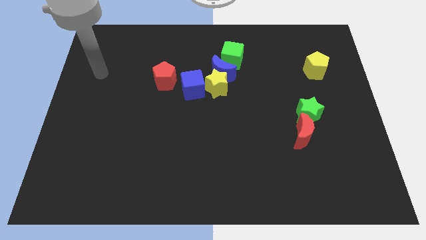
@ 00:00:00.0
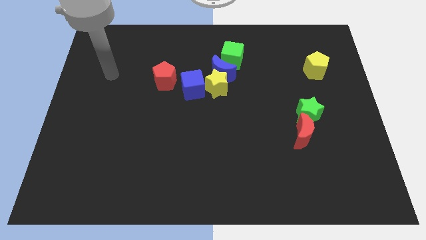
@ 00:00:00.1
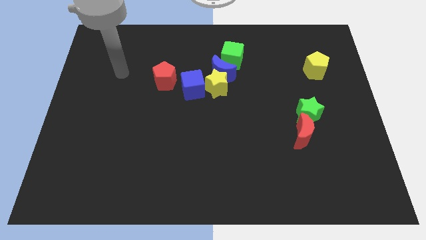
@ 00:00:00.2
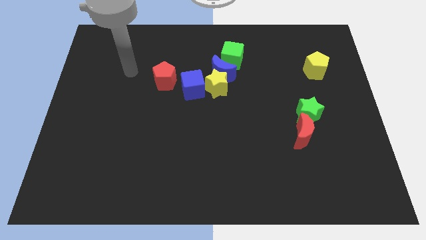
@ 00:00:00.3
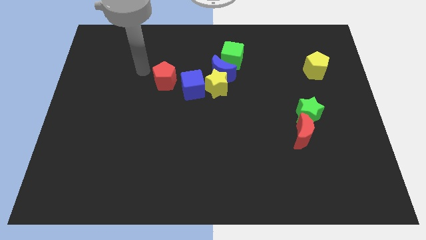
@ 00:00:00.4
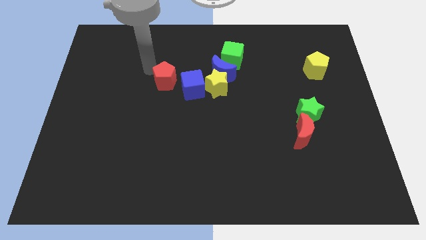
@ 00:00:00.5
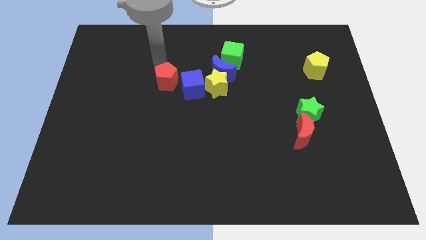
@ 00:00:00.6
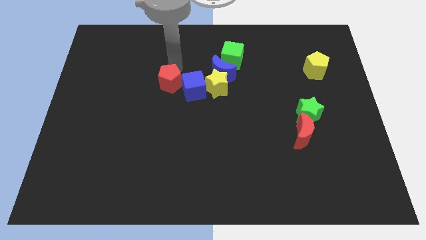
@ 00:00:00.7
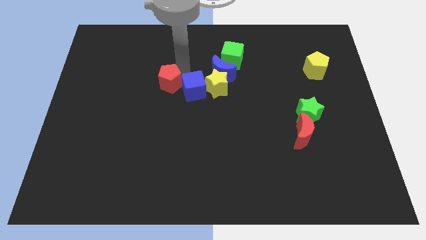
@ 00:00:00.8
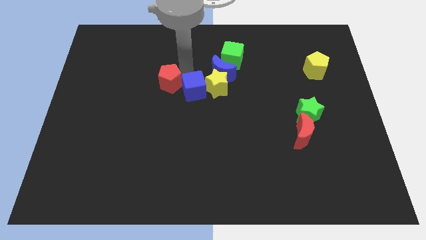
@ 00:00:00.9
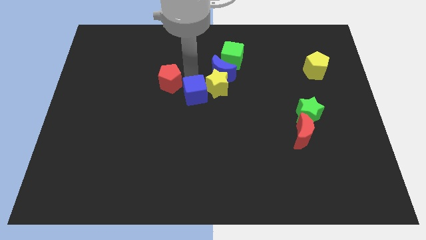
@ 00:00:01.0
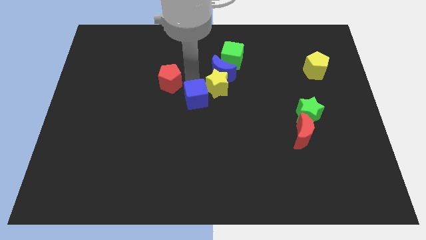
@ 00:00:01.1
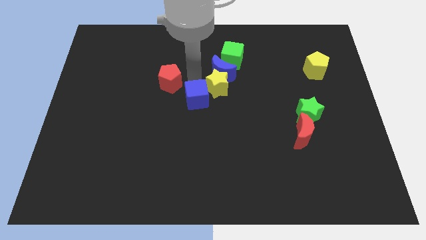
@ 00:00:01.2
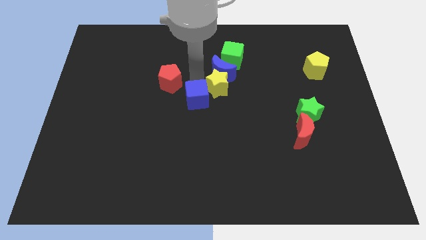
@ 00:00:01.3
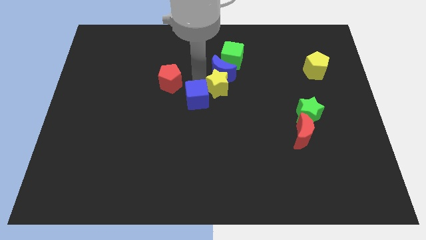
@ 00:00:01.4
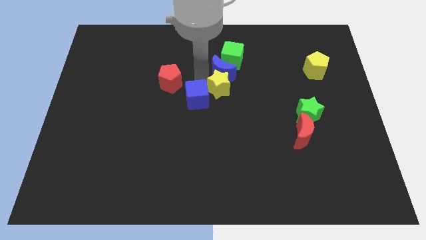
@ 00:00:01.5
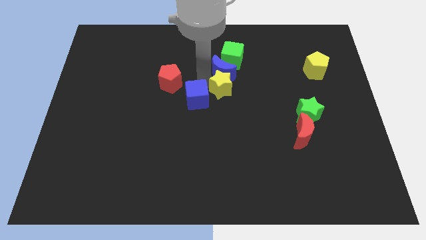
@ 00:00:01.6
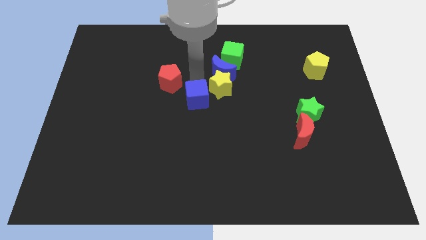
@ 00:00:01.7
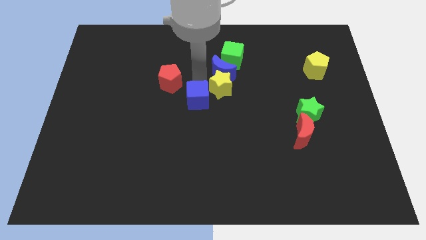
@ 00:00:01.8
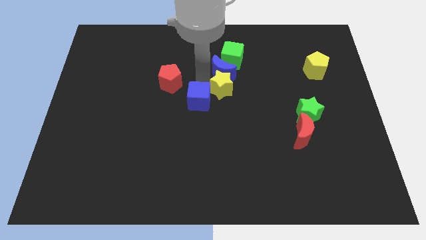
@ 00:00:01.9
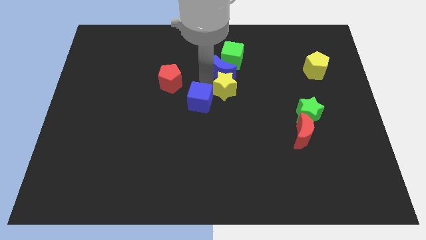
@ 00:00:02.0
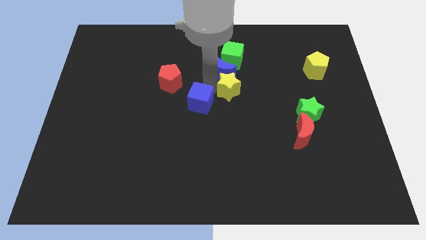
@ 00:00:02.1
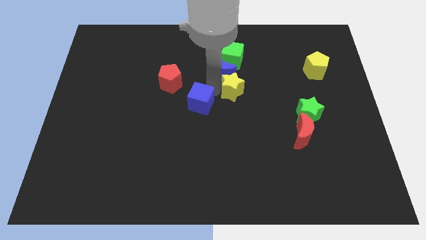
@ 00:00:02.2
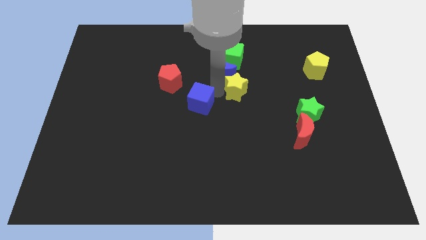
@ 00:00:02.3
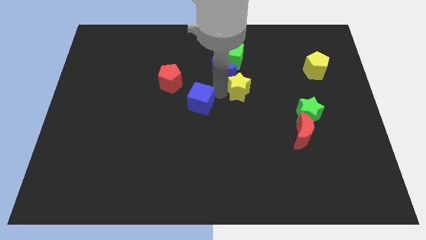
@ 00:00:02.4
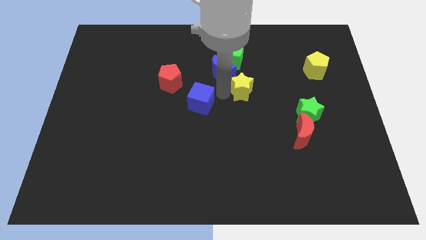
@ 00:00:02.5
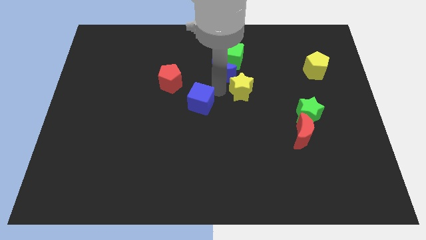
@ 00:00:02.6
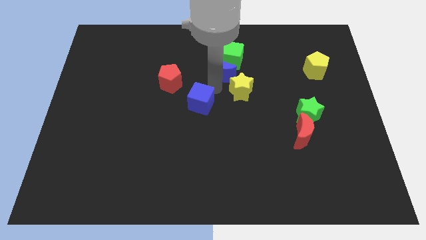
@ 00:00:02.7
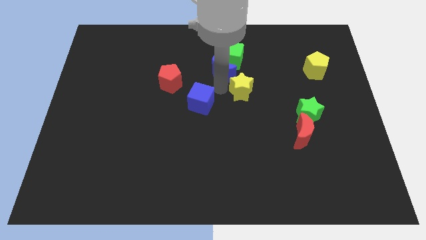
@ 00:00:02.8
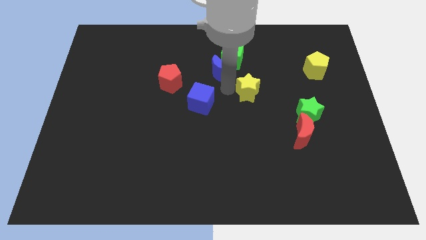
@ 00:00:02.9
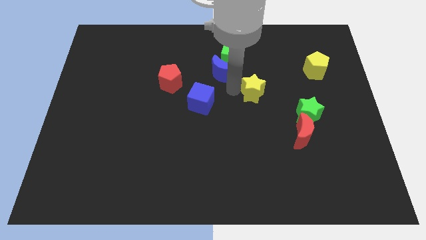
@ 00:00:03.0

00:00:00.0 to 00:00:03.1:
pull the yellow star apart from the blue moon and blue cube

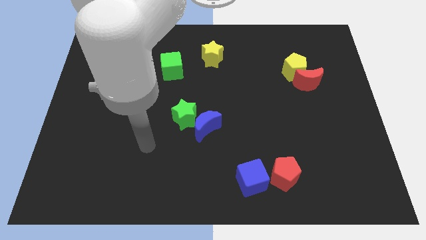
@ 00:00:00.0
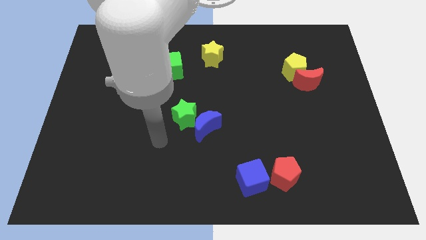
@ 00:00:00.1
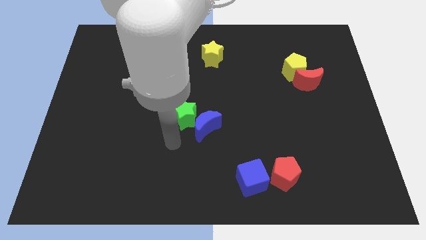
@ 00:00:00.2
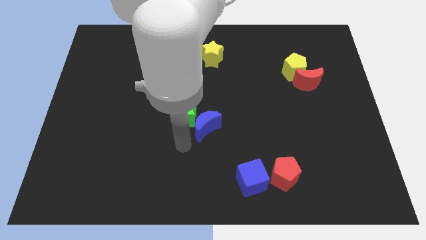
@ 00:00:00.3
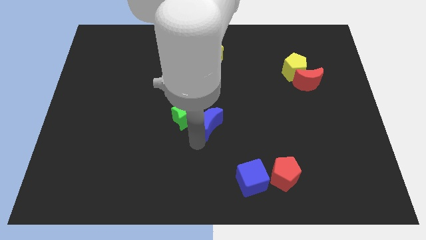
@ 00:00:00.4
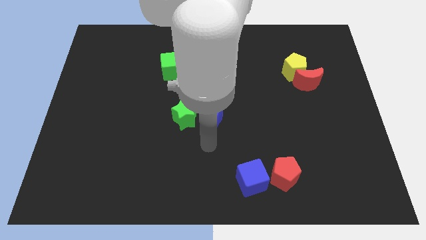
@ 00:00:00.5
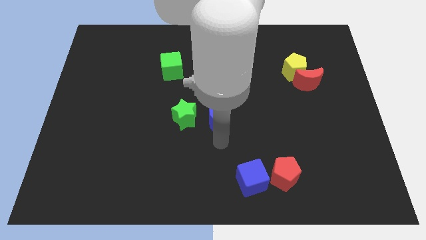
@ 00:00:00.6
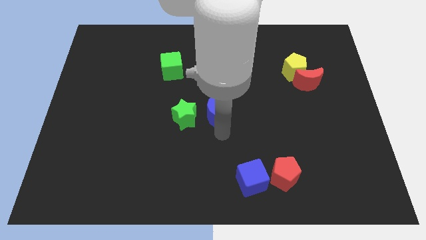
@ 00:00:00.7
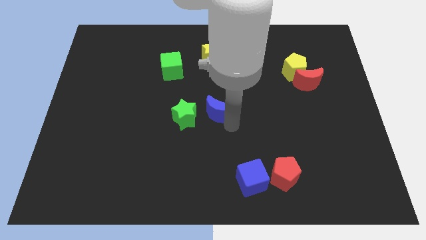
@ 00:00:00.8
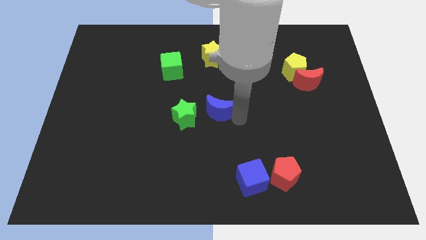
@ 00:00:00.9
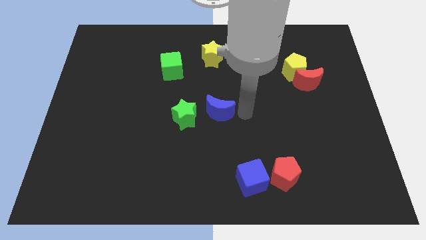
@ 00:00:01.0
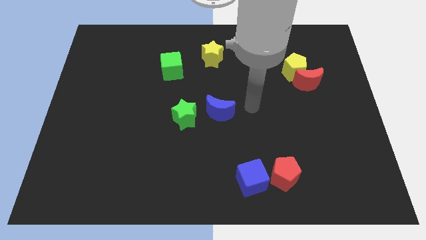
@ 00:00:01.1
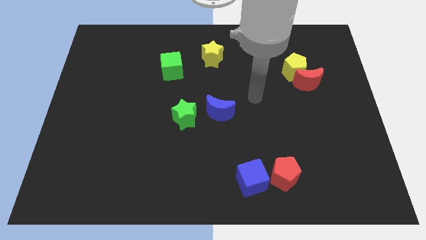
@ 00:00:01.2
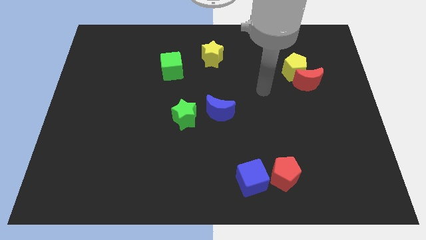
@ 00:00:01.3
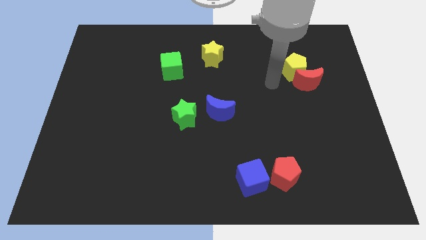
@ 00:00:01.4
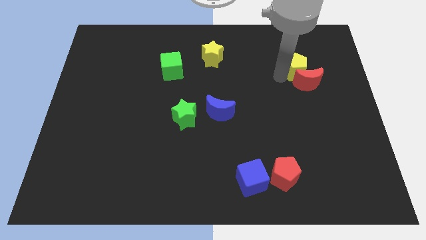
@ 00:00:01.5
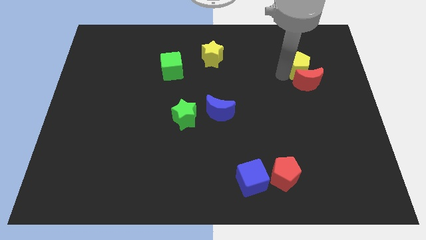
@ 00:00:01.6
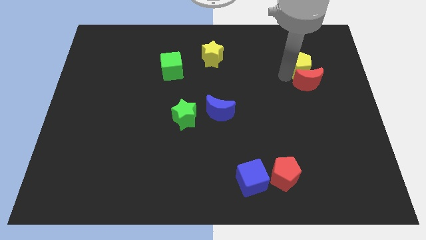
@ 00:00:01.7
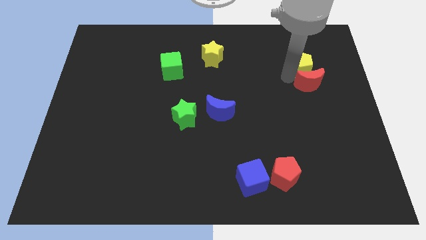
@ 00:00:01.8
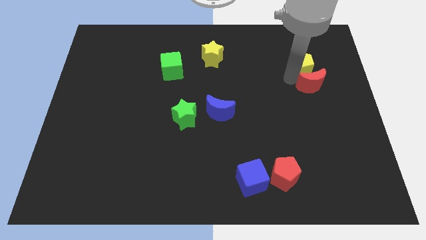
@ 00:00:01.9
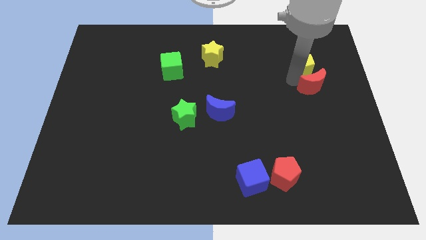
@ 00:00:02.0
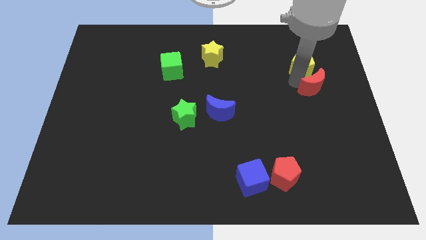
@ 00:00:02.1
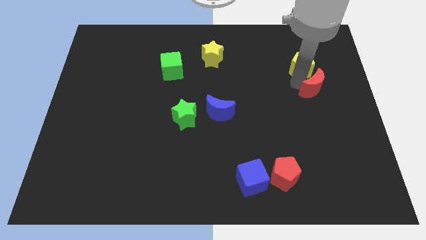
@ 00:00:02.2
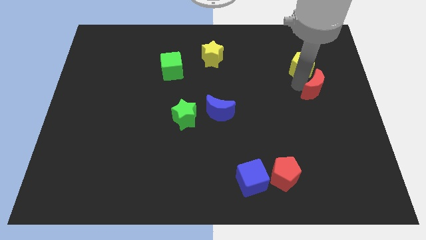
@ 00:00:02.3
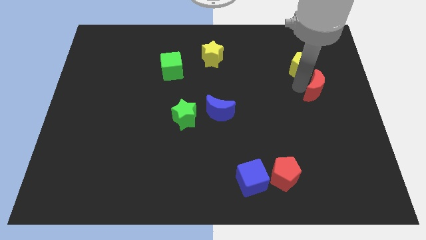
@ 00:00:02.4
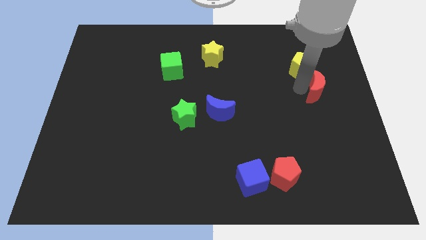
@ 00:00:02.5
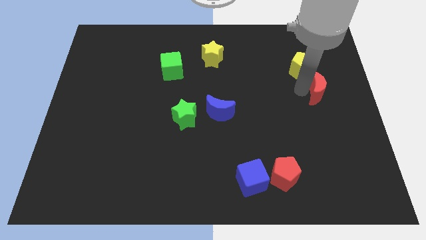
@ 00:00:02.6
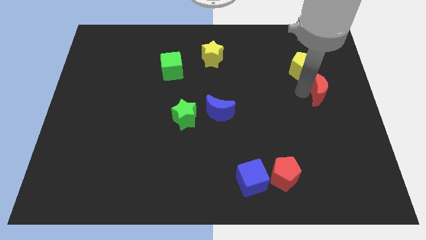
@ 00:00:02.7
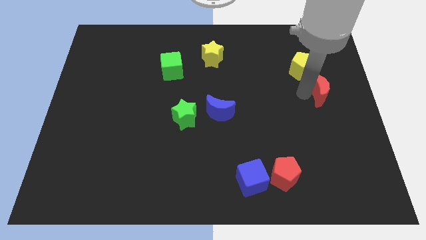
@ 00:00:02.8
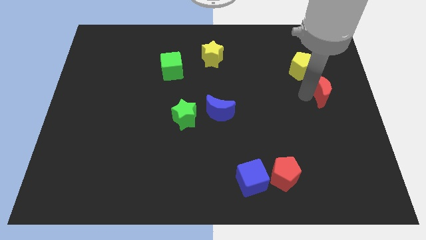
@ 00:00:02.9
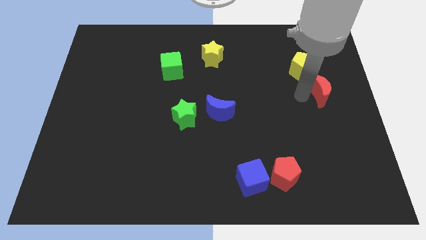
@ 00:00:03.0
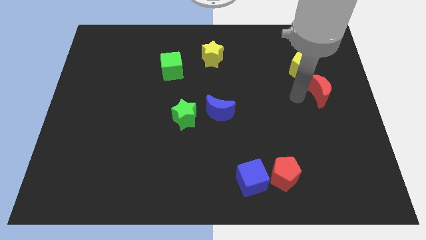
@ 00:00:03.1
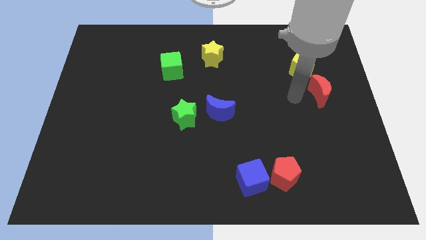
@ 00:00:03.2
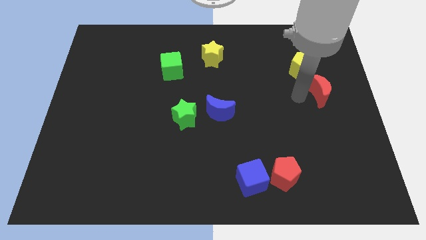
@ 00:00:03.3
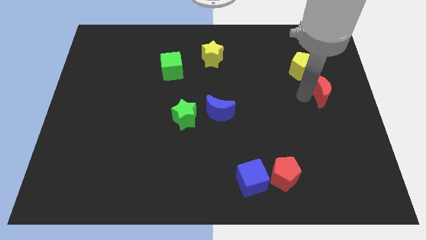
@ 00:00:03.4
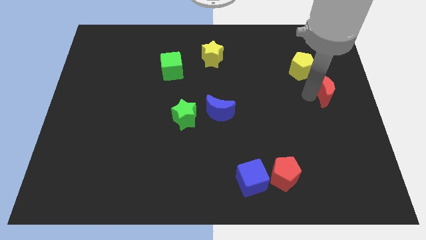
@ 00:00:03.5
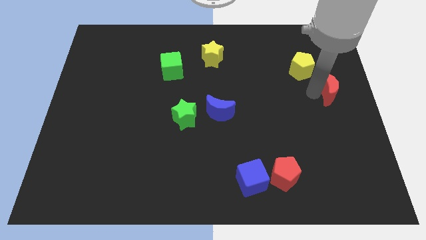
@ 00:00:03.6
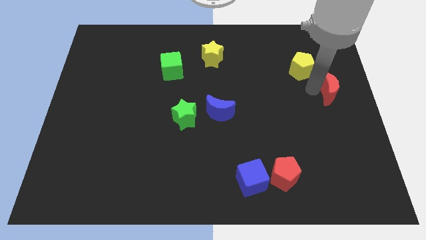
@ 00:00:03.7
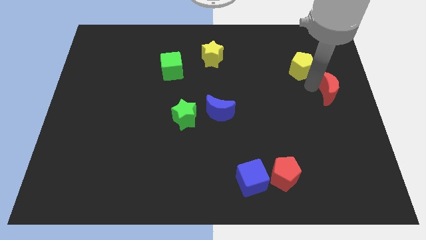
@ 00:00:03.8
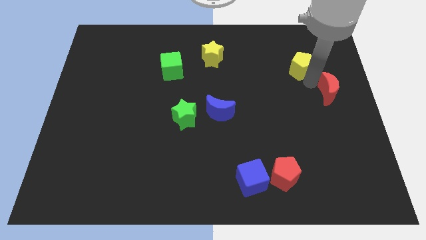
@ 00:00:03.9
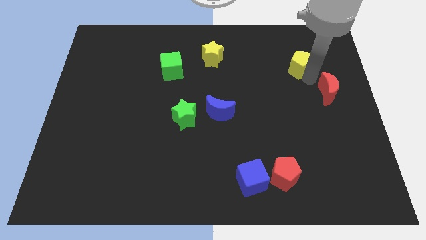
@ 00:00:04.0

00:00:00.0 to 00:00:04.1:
pull the red moon apart from the yellow pentagon

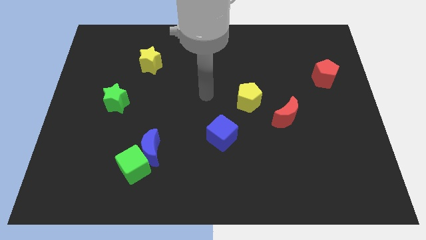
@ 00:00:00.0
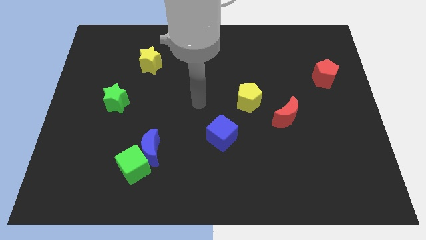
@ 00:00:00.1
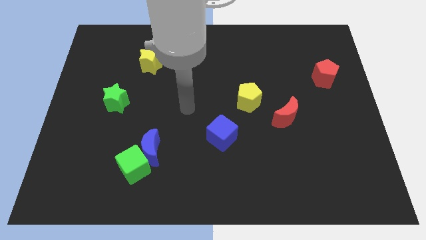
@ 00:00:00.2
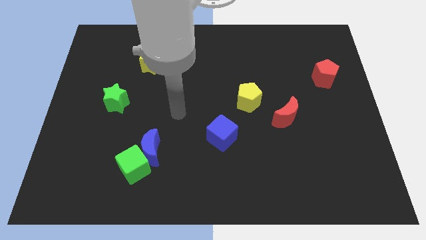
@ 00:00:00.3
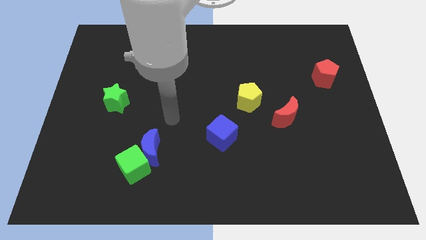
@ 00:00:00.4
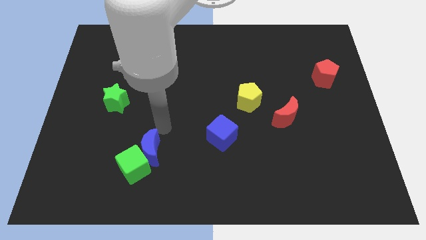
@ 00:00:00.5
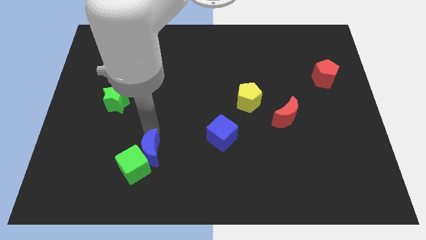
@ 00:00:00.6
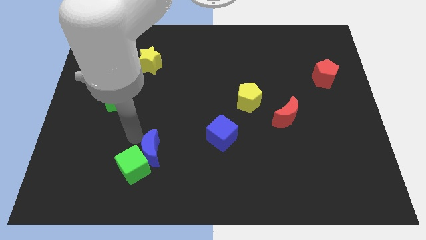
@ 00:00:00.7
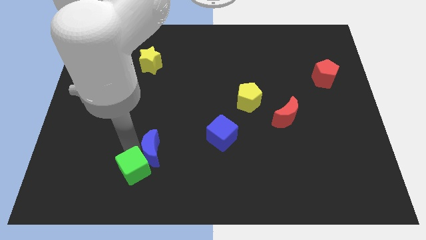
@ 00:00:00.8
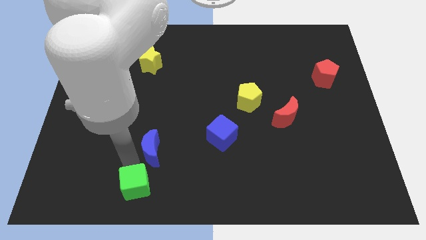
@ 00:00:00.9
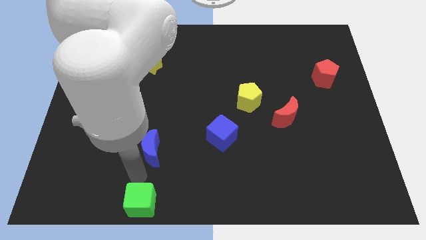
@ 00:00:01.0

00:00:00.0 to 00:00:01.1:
pull the blue moon apart from the green cube

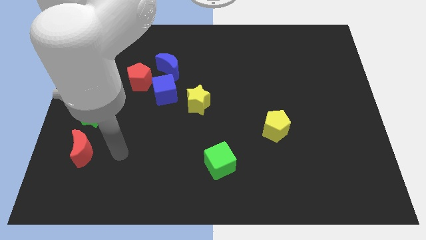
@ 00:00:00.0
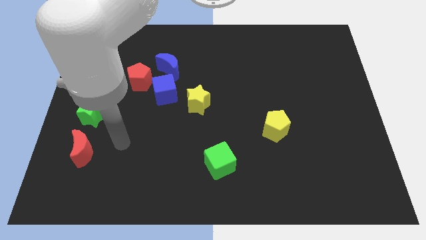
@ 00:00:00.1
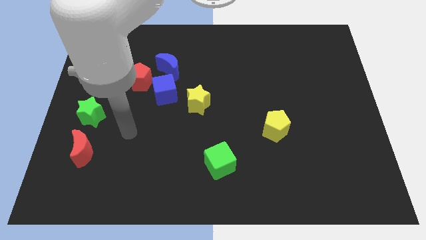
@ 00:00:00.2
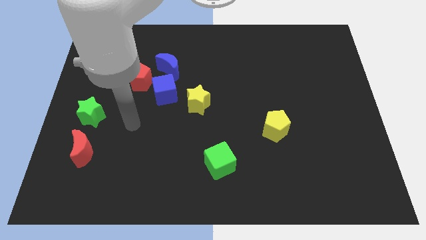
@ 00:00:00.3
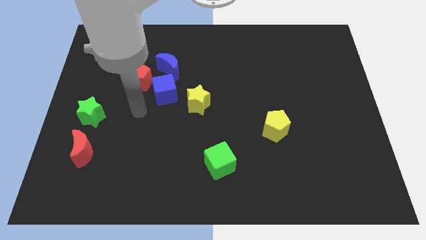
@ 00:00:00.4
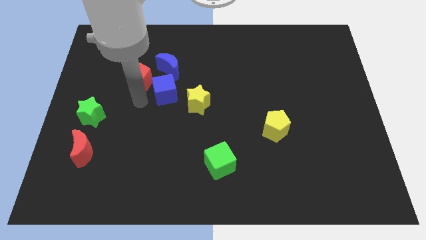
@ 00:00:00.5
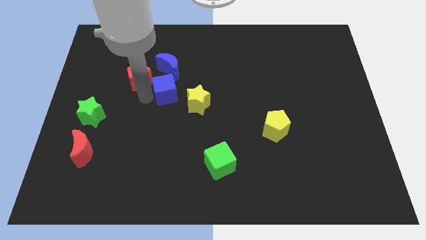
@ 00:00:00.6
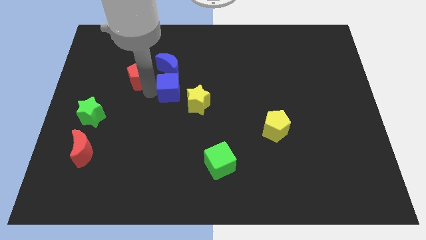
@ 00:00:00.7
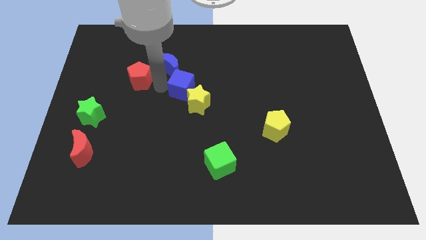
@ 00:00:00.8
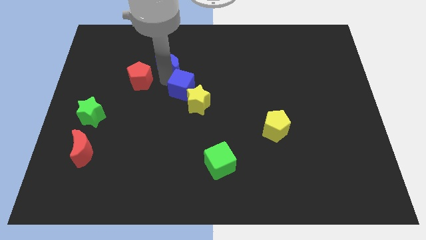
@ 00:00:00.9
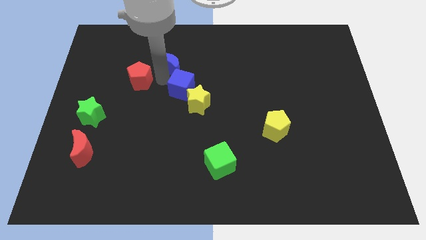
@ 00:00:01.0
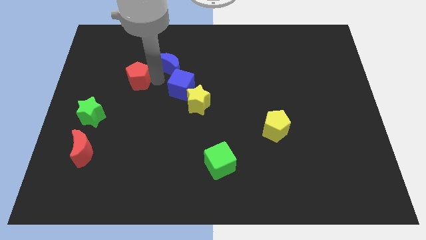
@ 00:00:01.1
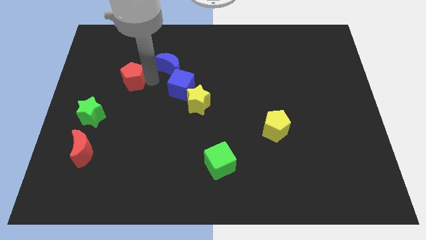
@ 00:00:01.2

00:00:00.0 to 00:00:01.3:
pull the red pentagon apart from the blue cube and blue moon
